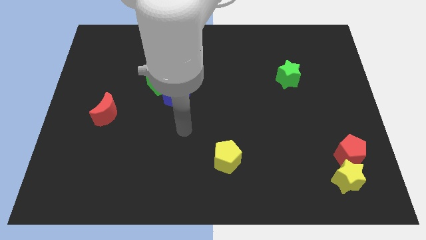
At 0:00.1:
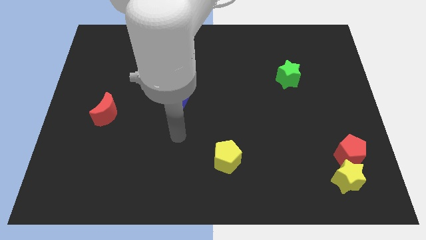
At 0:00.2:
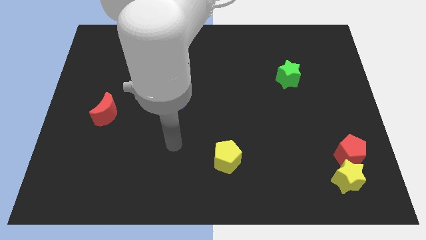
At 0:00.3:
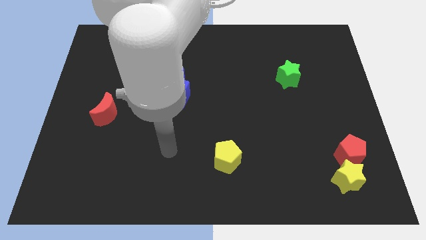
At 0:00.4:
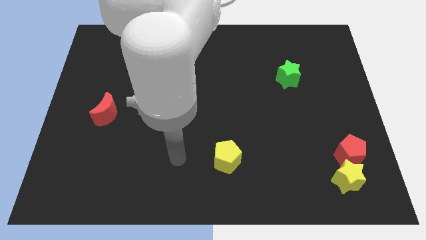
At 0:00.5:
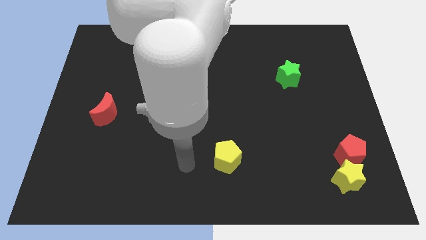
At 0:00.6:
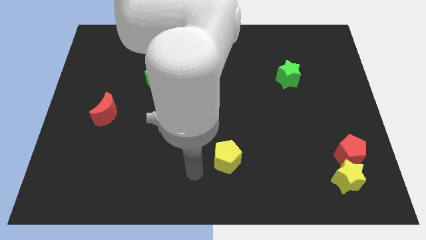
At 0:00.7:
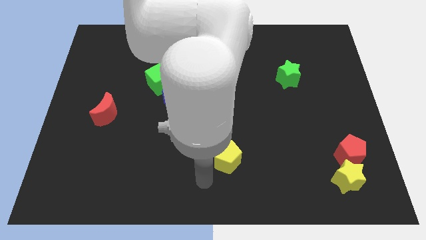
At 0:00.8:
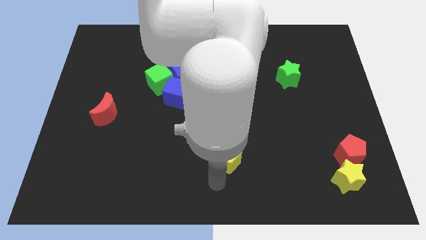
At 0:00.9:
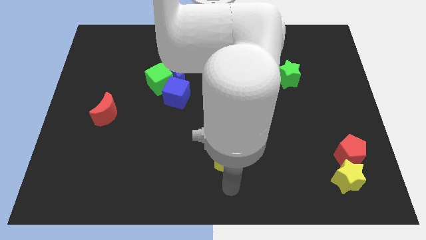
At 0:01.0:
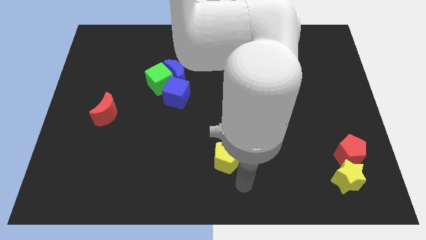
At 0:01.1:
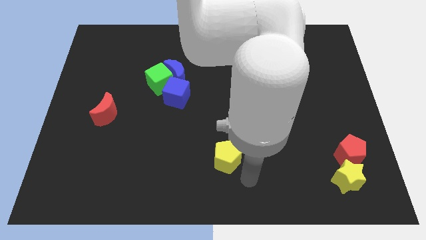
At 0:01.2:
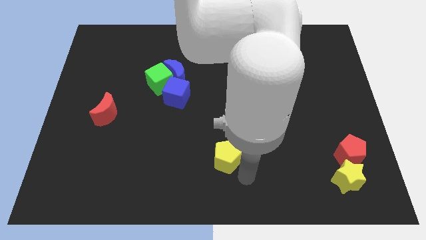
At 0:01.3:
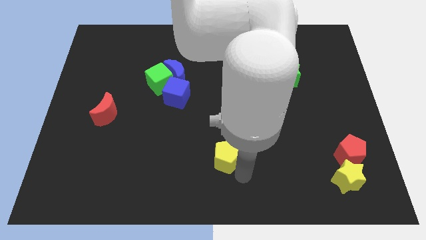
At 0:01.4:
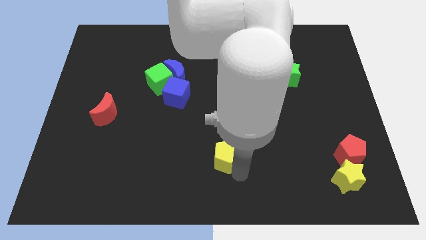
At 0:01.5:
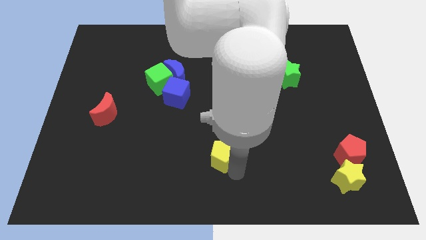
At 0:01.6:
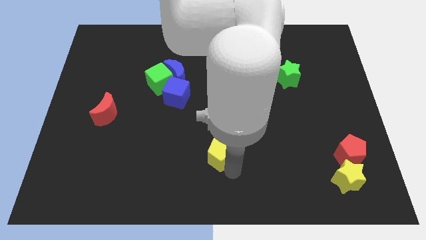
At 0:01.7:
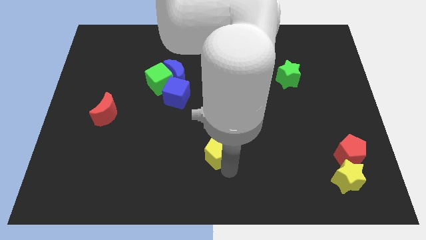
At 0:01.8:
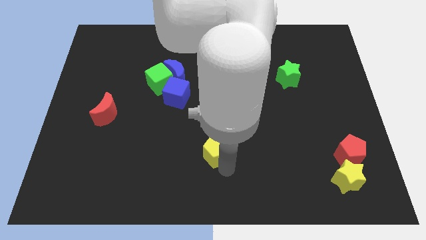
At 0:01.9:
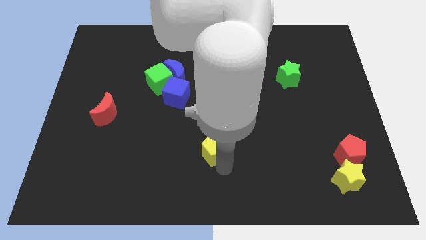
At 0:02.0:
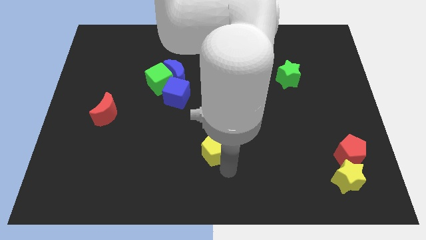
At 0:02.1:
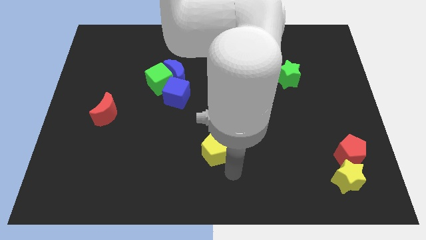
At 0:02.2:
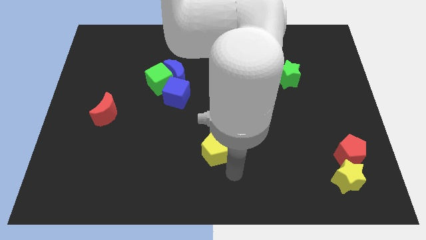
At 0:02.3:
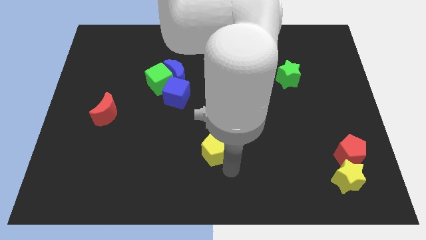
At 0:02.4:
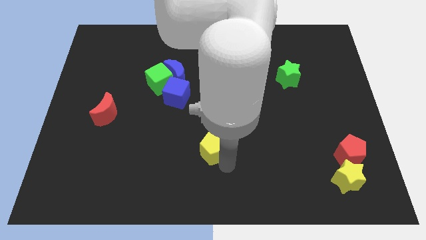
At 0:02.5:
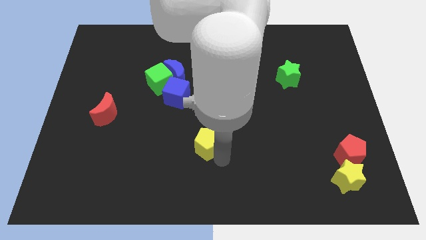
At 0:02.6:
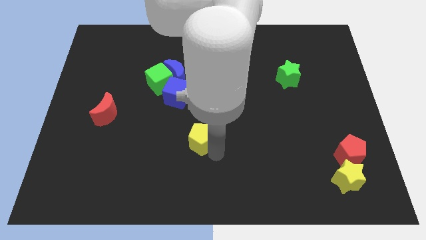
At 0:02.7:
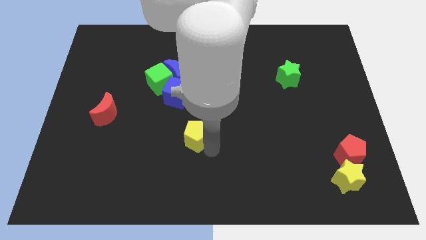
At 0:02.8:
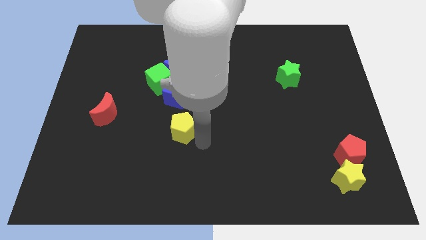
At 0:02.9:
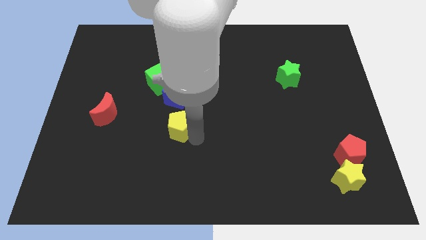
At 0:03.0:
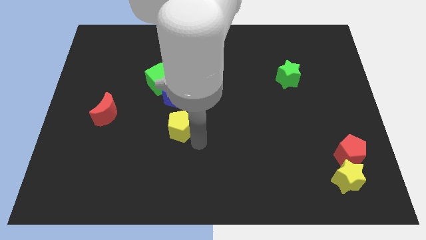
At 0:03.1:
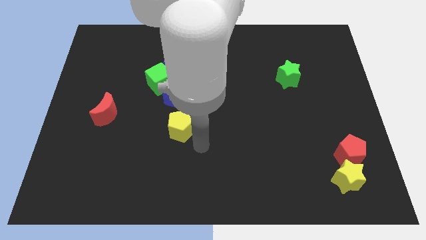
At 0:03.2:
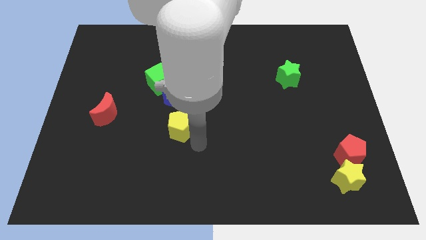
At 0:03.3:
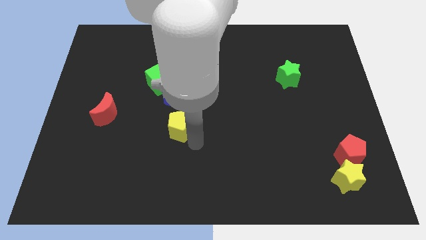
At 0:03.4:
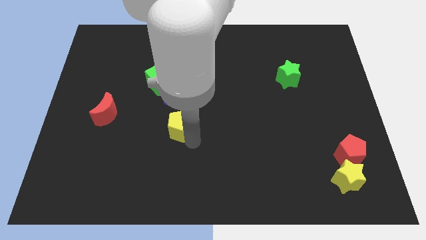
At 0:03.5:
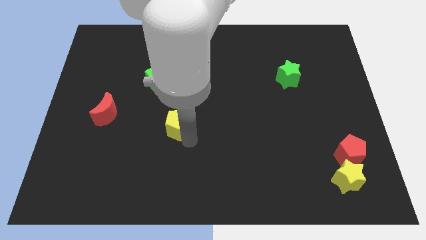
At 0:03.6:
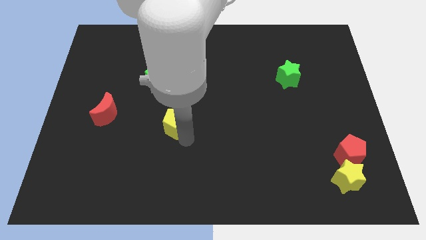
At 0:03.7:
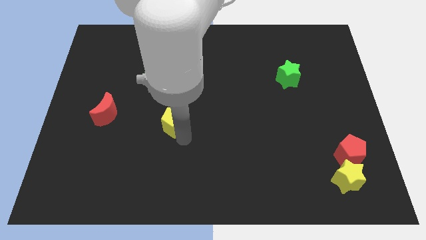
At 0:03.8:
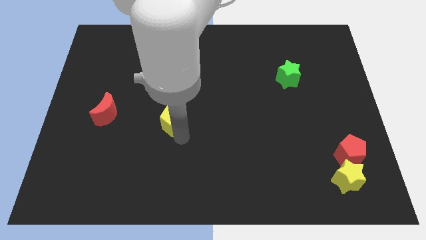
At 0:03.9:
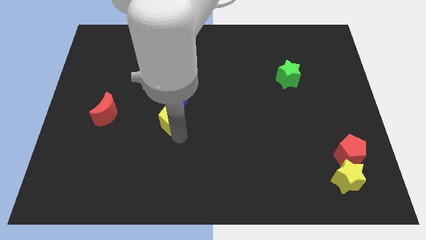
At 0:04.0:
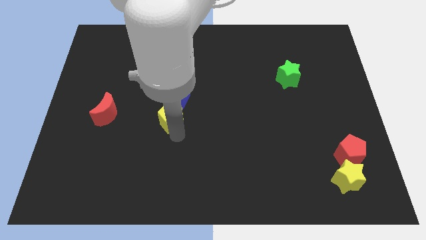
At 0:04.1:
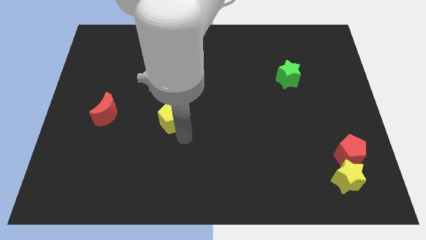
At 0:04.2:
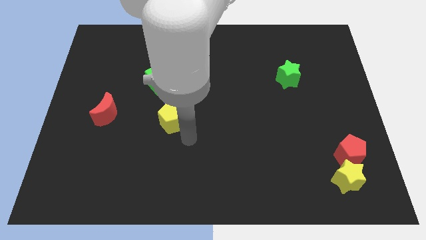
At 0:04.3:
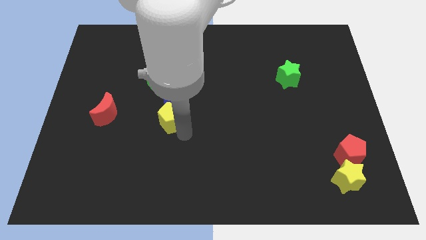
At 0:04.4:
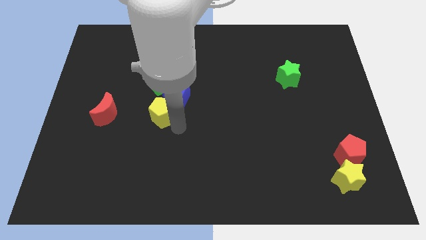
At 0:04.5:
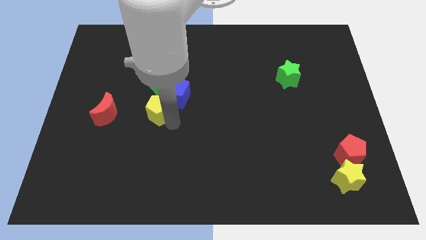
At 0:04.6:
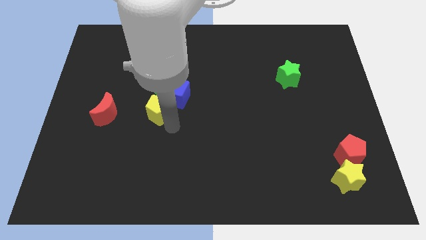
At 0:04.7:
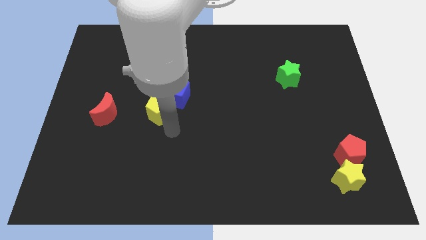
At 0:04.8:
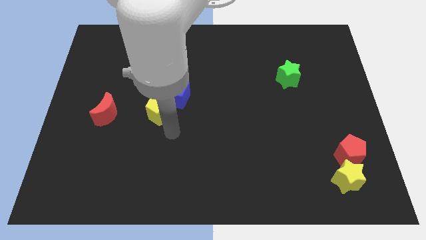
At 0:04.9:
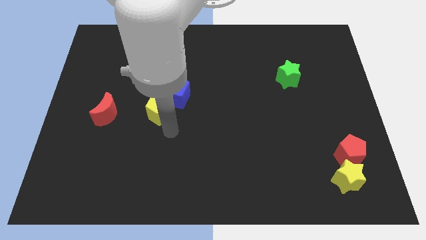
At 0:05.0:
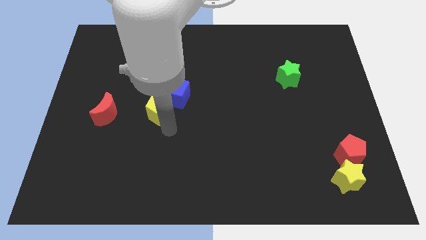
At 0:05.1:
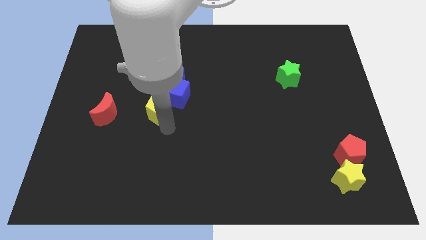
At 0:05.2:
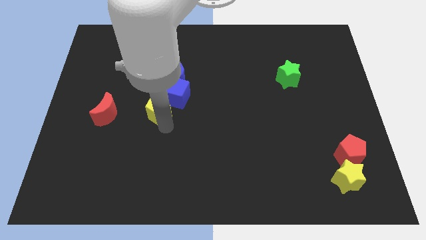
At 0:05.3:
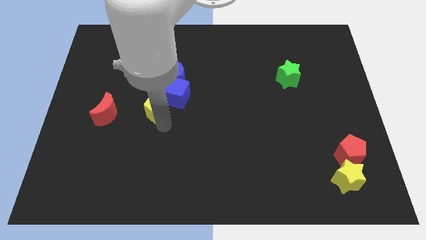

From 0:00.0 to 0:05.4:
slide the yellow pentagon up and left diagonally

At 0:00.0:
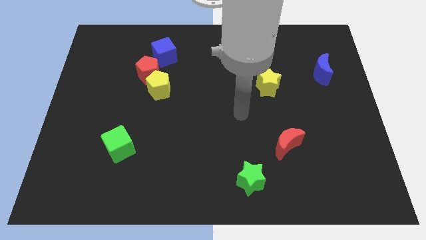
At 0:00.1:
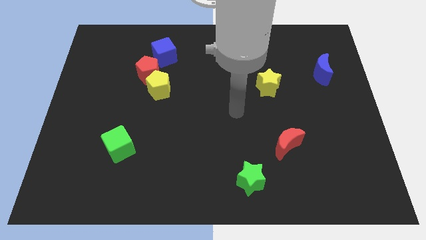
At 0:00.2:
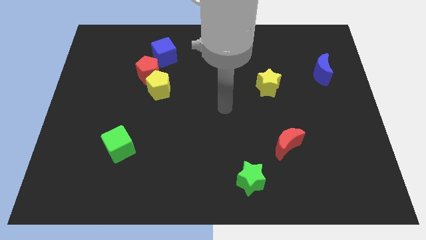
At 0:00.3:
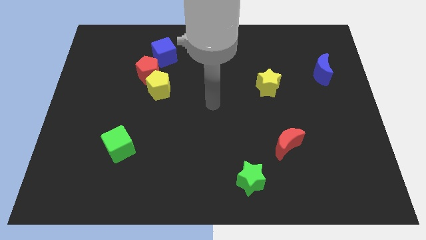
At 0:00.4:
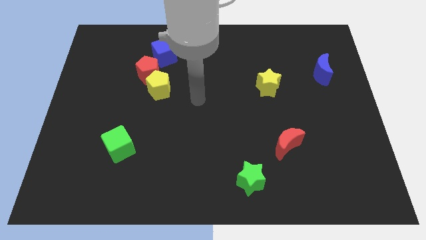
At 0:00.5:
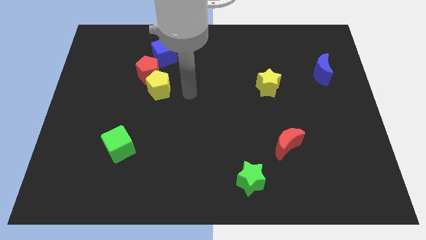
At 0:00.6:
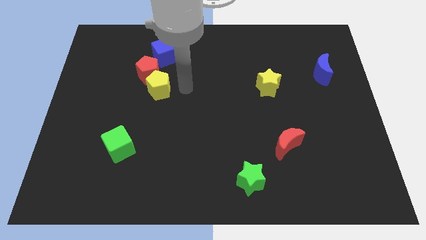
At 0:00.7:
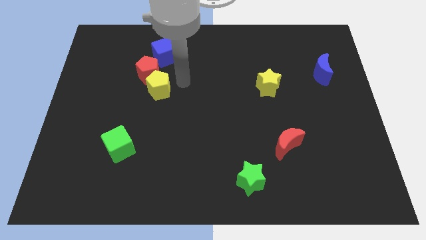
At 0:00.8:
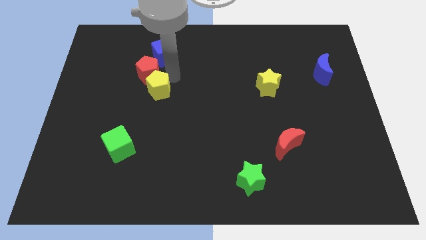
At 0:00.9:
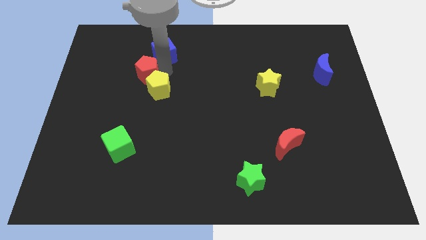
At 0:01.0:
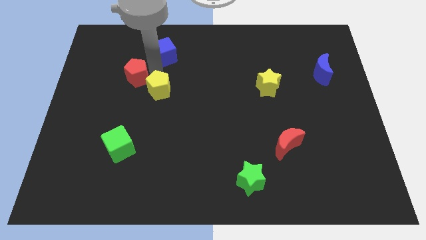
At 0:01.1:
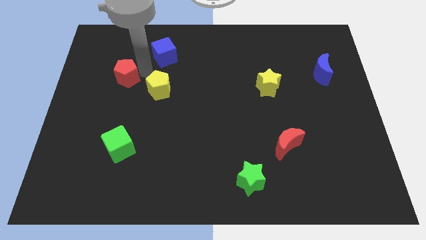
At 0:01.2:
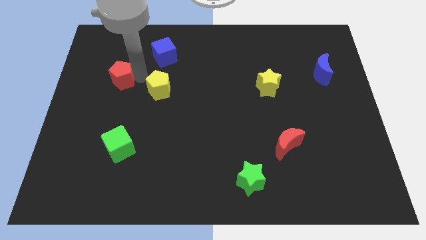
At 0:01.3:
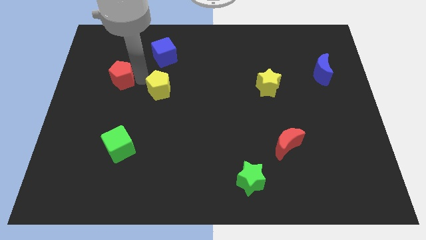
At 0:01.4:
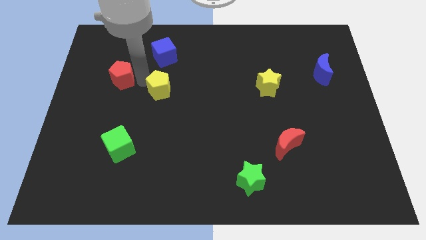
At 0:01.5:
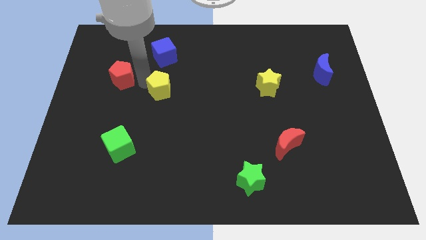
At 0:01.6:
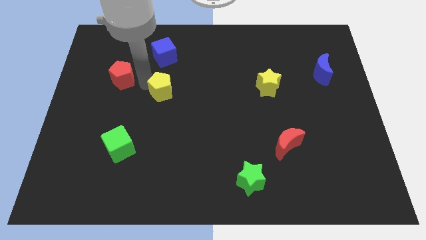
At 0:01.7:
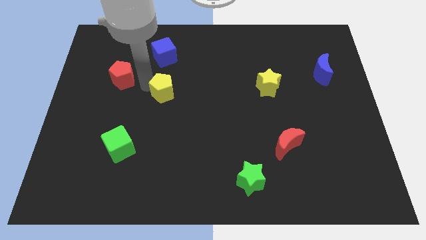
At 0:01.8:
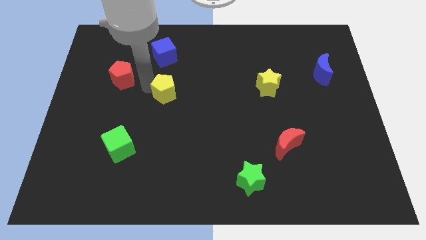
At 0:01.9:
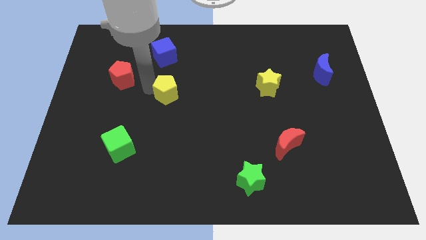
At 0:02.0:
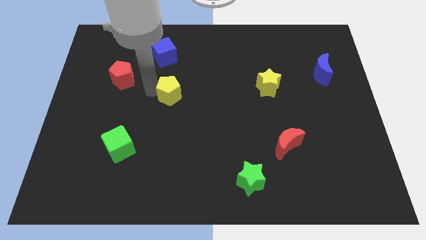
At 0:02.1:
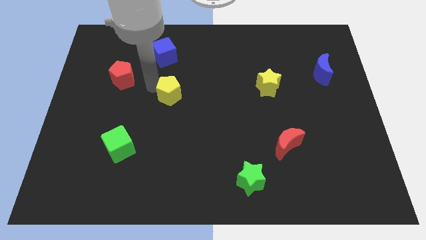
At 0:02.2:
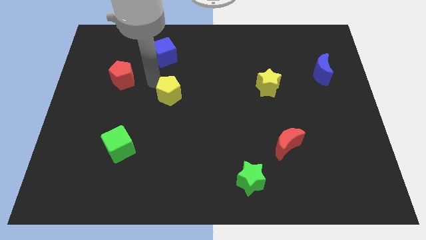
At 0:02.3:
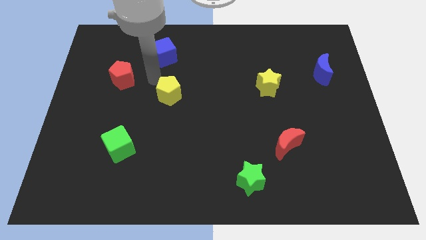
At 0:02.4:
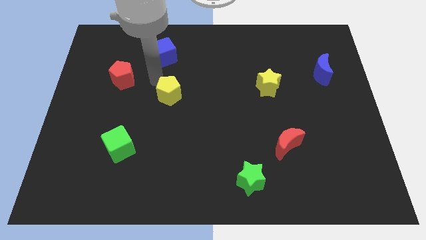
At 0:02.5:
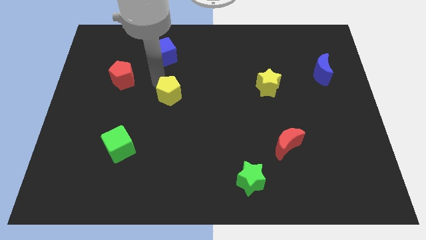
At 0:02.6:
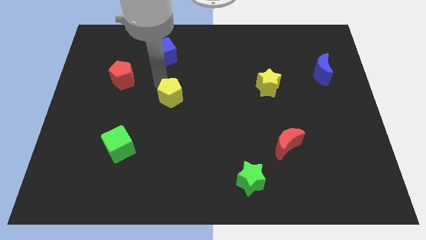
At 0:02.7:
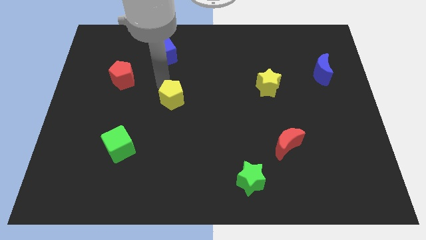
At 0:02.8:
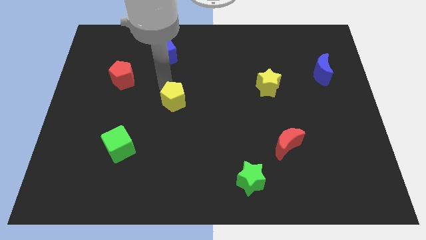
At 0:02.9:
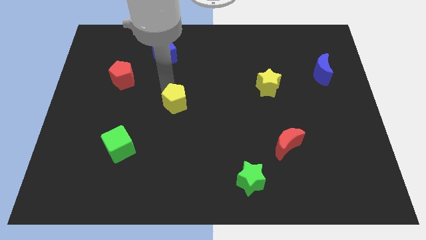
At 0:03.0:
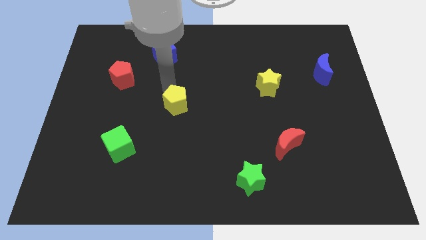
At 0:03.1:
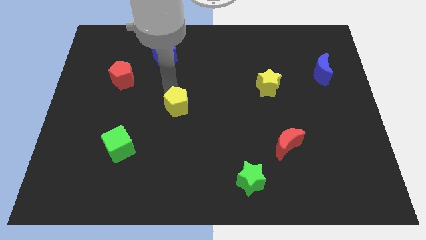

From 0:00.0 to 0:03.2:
push the yellow pentagon down and to the right diagonally a bit
